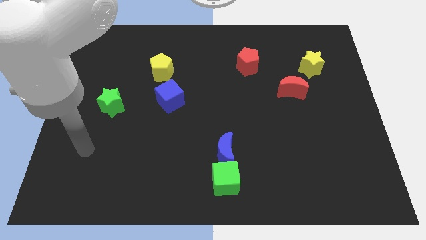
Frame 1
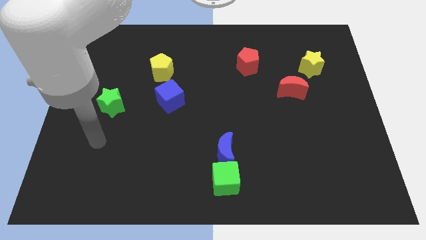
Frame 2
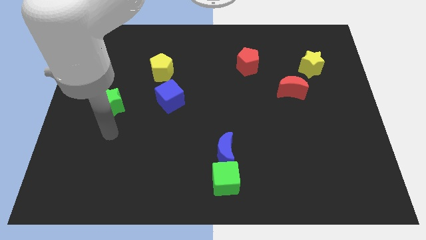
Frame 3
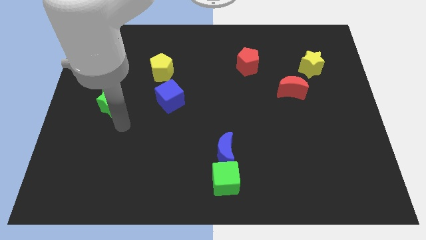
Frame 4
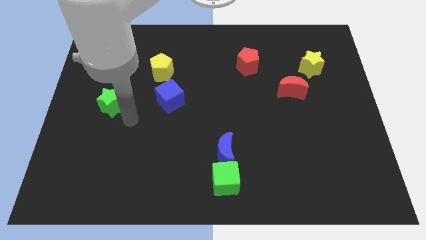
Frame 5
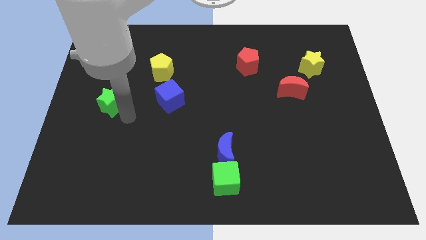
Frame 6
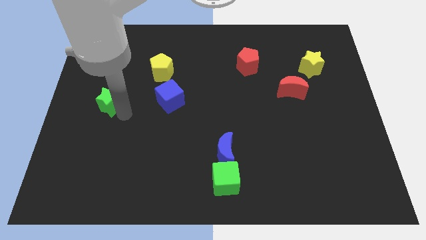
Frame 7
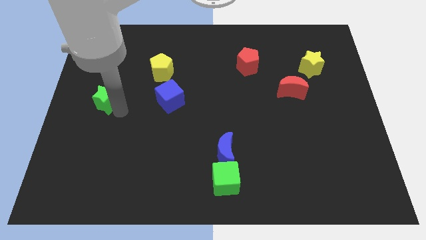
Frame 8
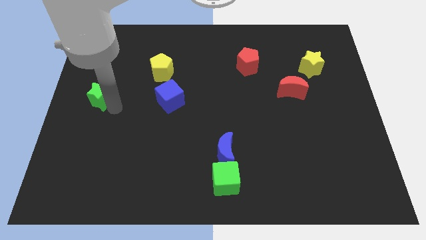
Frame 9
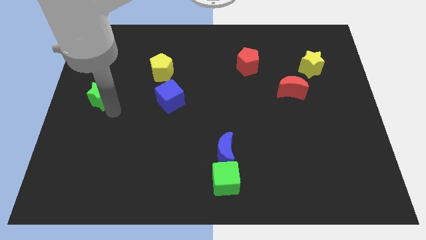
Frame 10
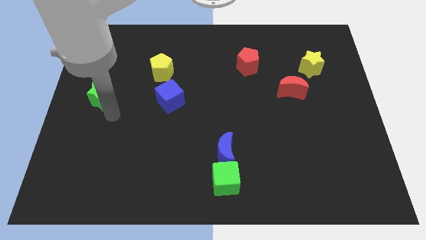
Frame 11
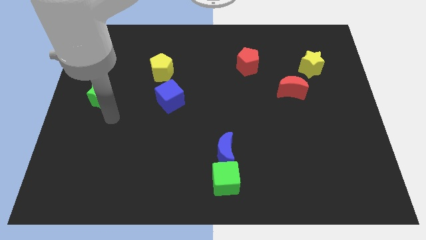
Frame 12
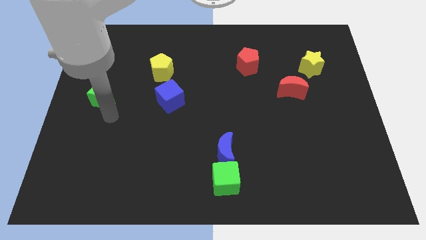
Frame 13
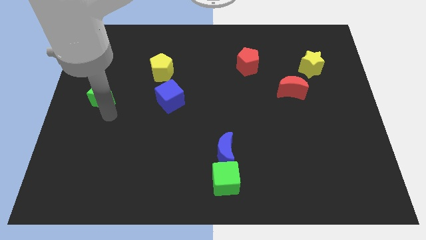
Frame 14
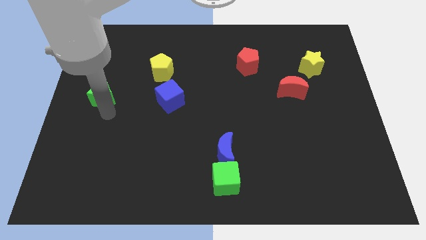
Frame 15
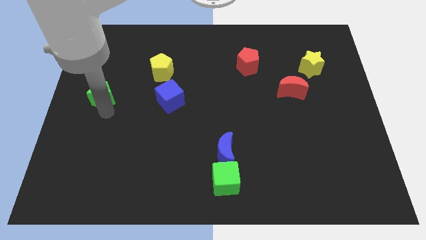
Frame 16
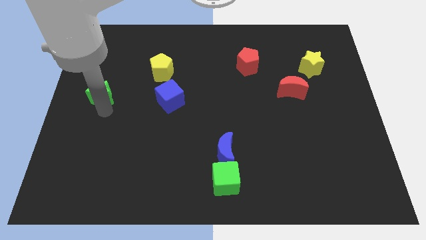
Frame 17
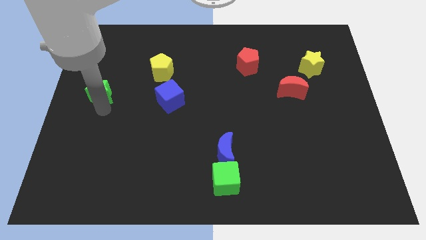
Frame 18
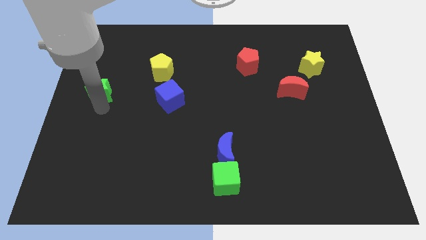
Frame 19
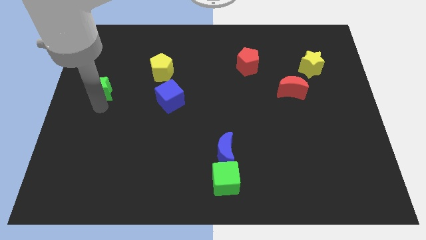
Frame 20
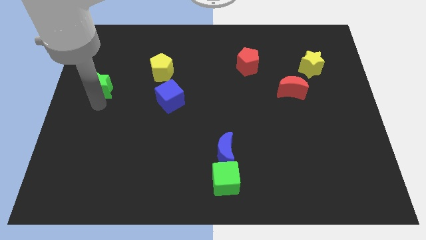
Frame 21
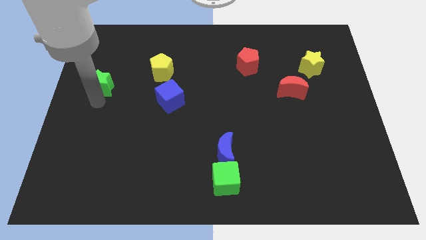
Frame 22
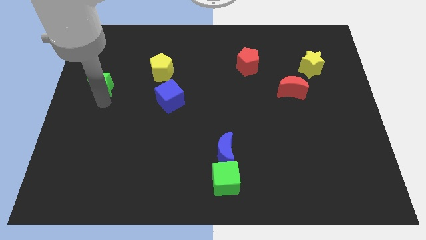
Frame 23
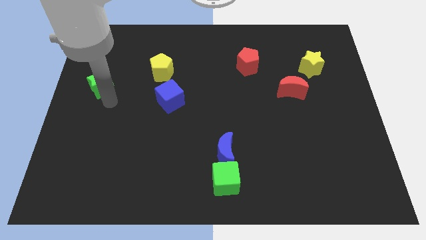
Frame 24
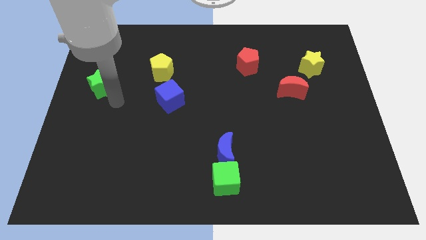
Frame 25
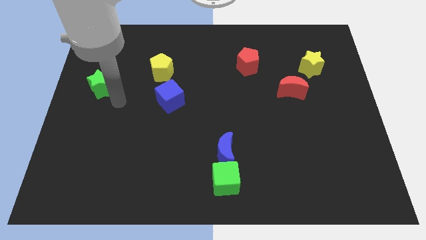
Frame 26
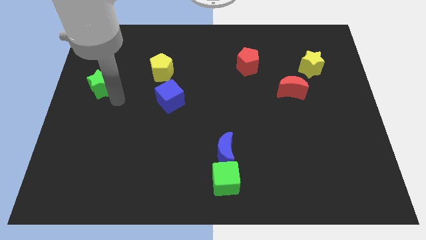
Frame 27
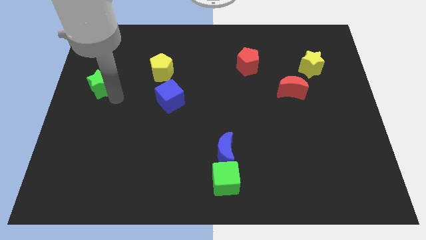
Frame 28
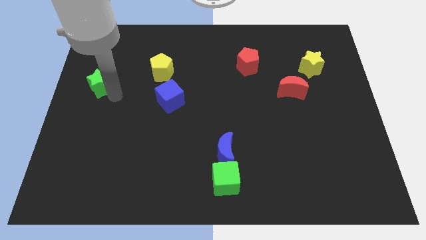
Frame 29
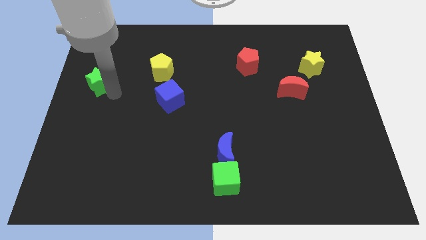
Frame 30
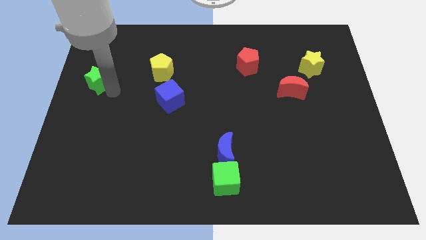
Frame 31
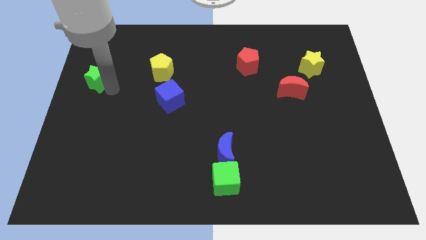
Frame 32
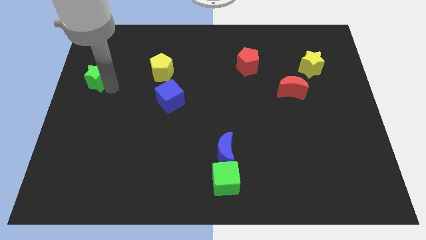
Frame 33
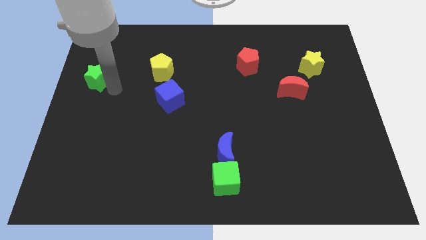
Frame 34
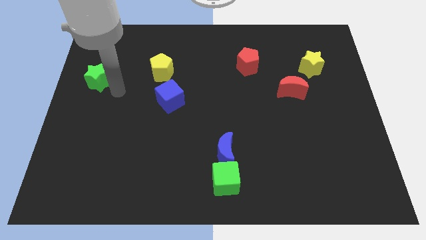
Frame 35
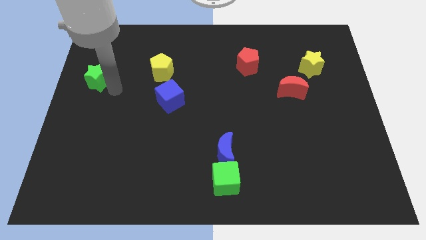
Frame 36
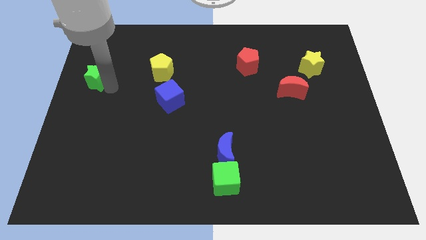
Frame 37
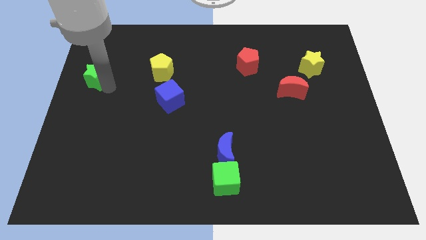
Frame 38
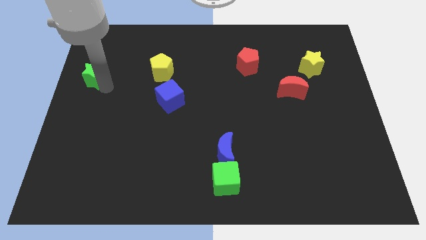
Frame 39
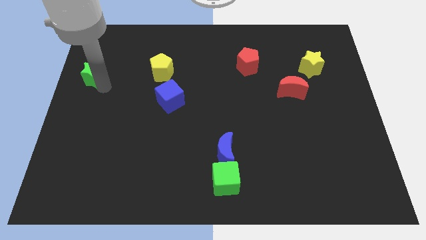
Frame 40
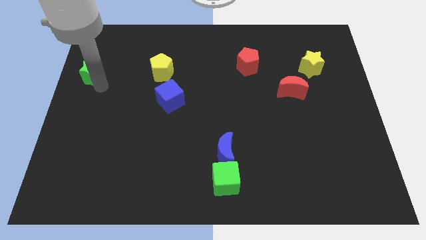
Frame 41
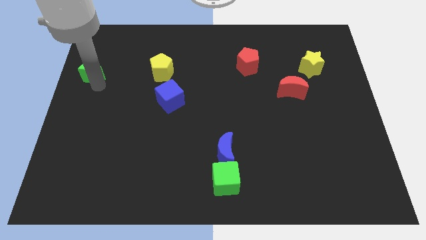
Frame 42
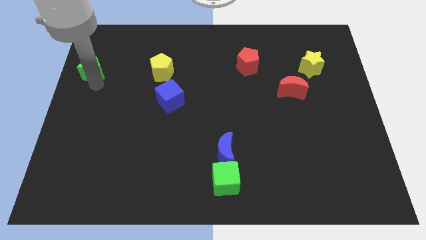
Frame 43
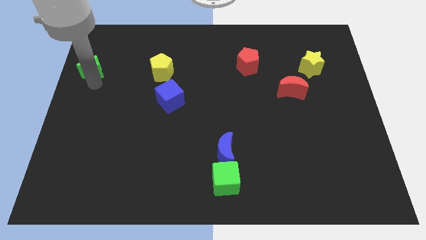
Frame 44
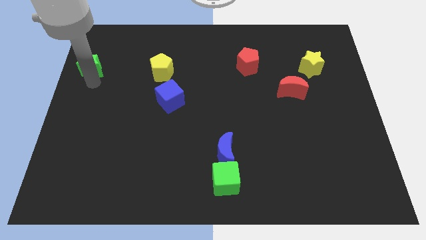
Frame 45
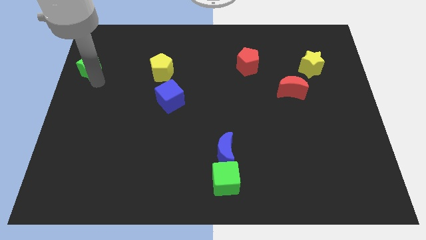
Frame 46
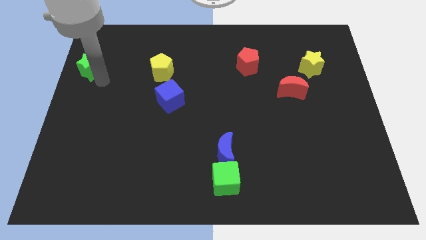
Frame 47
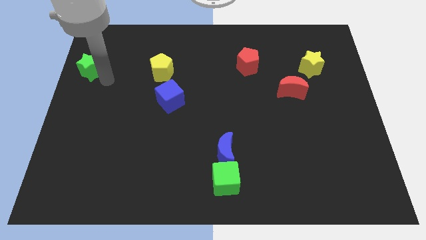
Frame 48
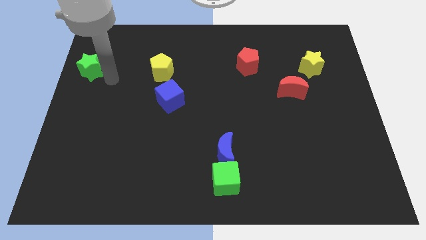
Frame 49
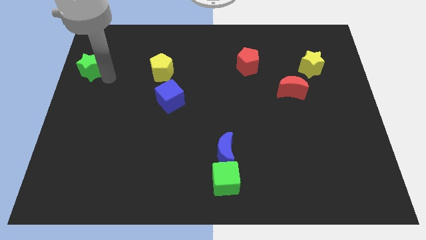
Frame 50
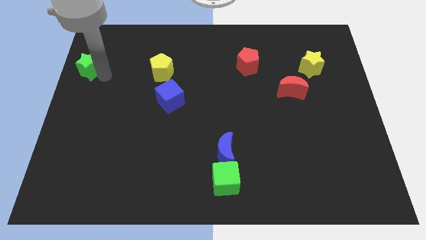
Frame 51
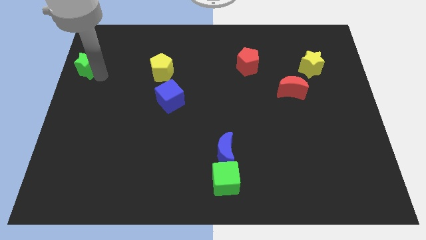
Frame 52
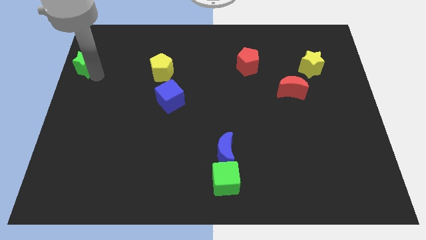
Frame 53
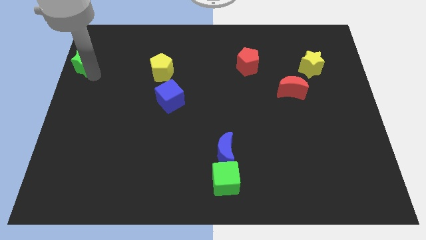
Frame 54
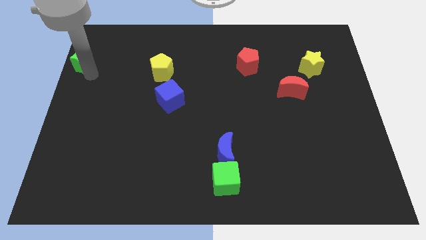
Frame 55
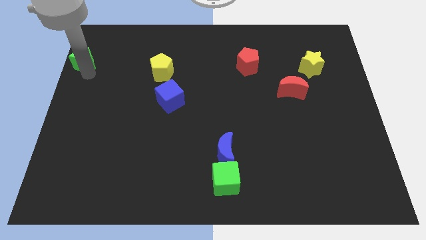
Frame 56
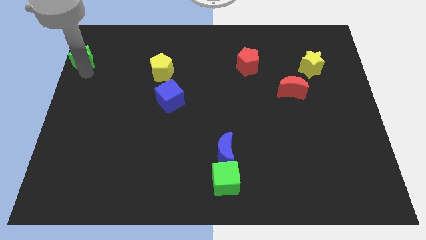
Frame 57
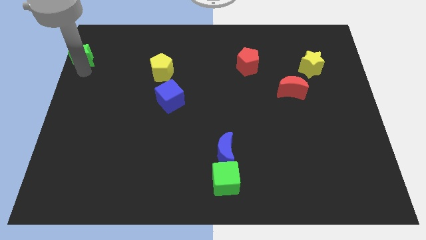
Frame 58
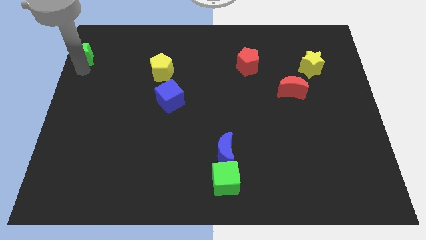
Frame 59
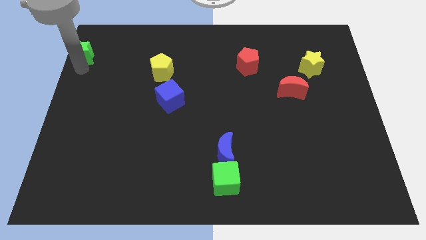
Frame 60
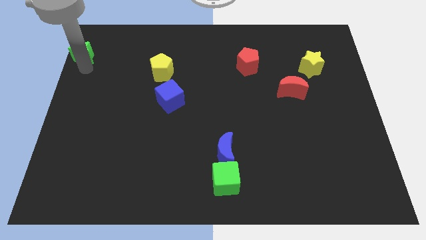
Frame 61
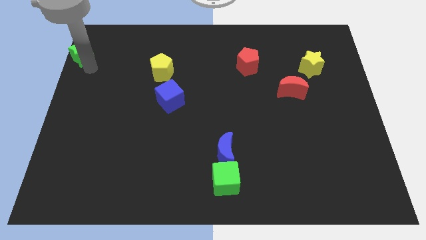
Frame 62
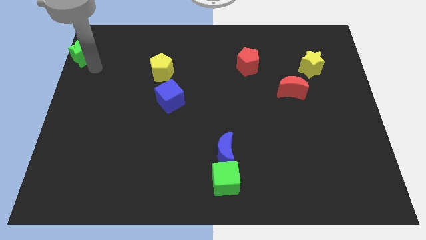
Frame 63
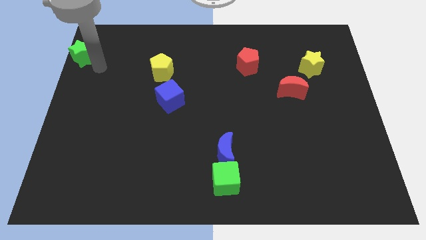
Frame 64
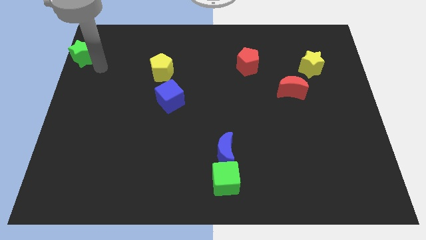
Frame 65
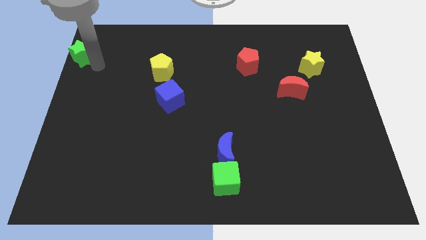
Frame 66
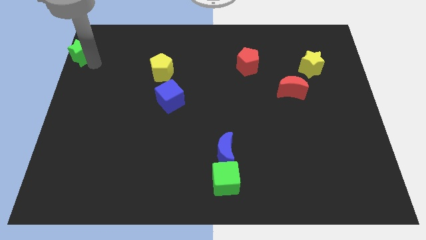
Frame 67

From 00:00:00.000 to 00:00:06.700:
slide the green star to the top left corner

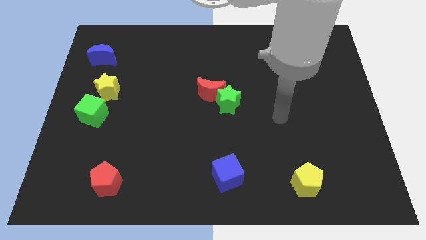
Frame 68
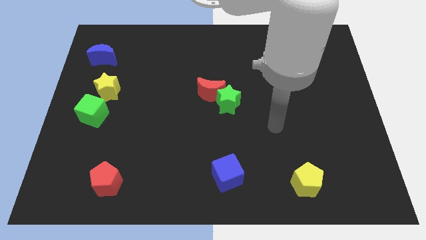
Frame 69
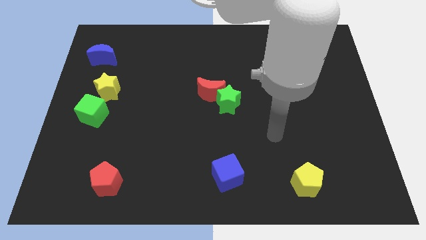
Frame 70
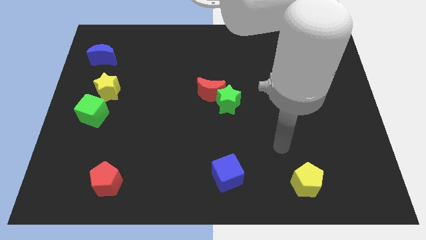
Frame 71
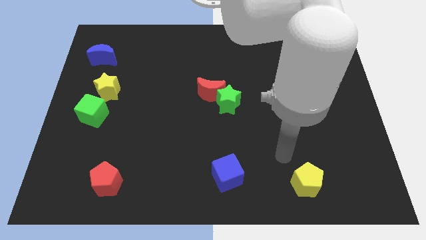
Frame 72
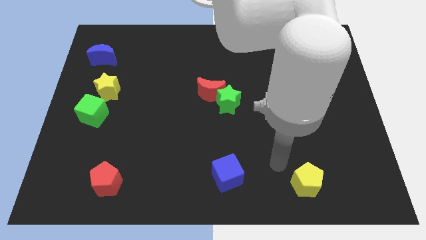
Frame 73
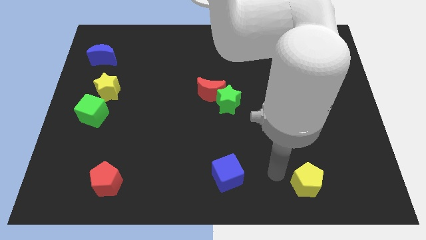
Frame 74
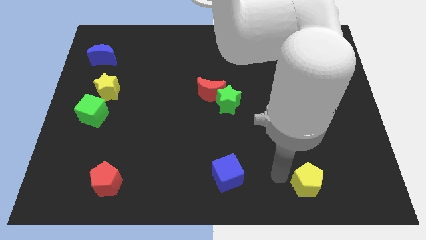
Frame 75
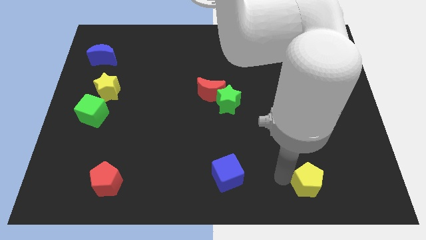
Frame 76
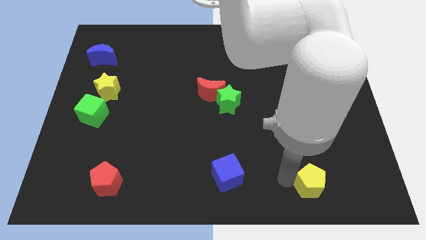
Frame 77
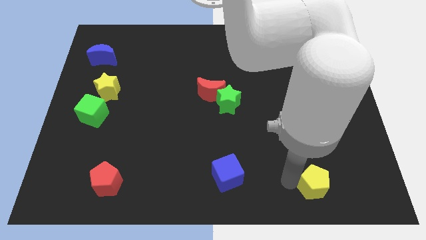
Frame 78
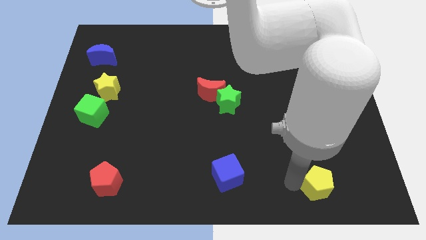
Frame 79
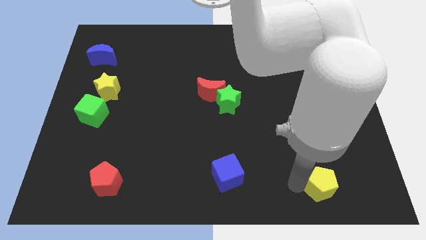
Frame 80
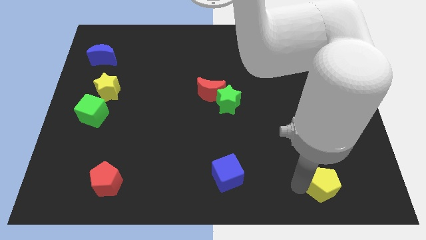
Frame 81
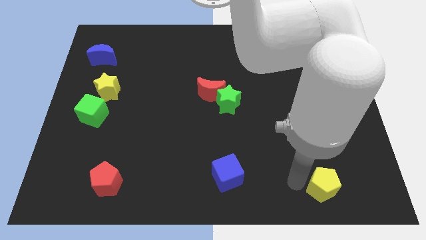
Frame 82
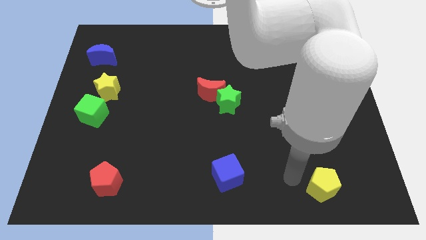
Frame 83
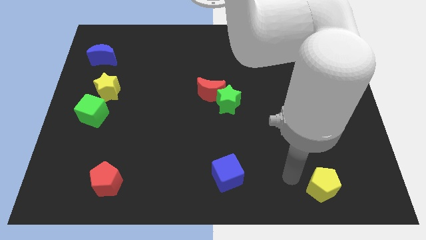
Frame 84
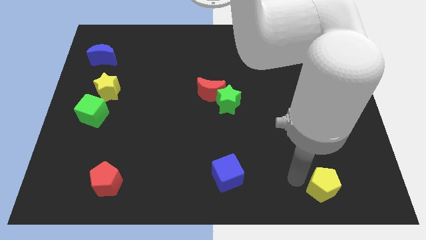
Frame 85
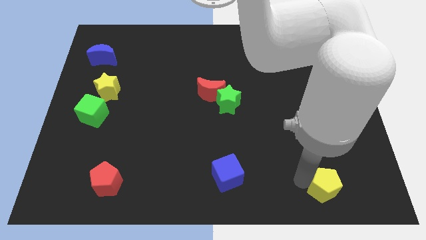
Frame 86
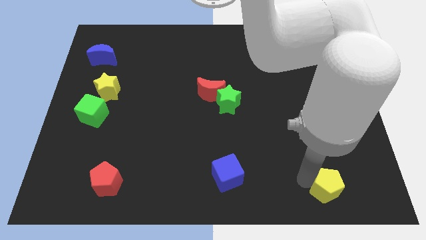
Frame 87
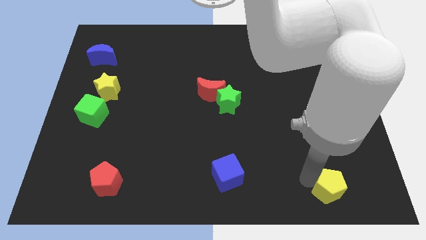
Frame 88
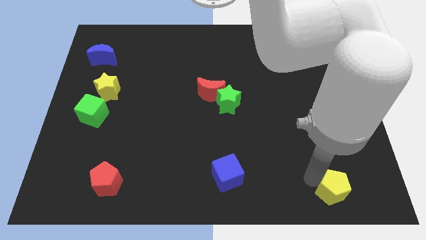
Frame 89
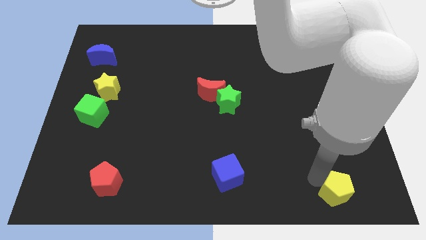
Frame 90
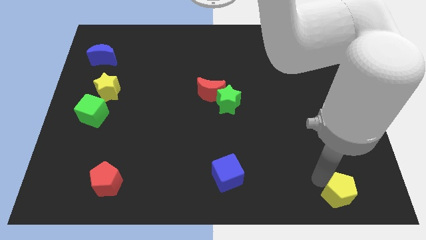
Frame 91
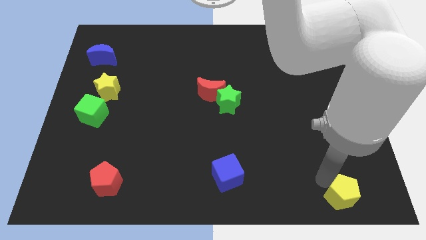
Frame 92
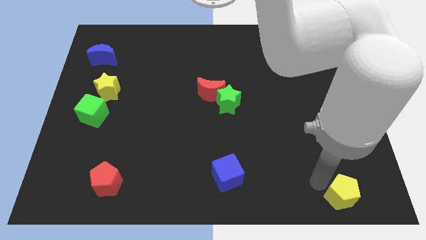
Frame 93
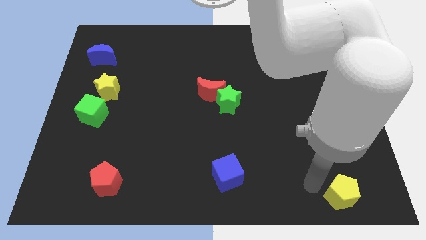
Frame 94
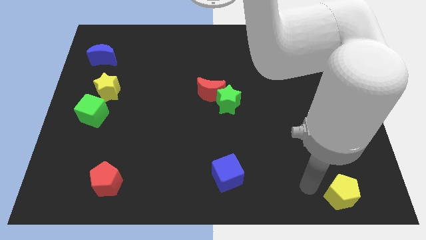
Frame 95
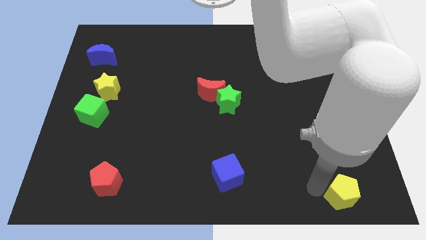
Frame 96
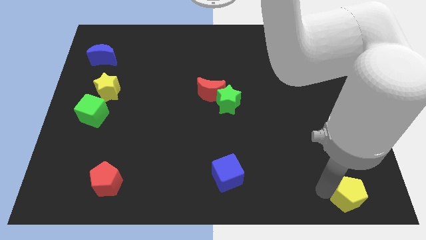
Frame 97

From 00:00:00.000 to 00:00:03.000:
slide the yellow pentagon to the lower right corner
